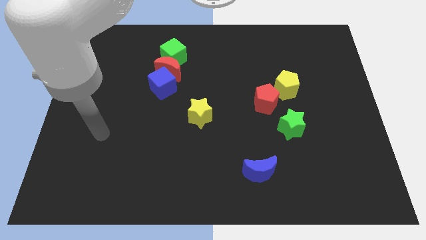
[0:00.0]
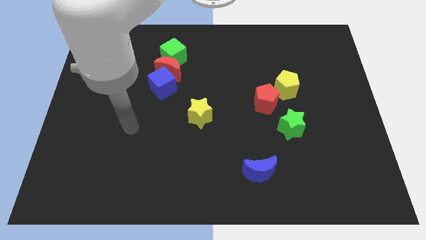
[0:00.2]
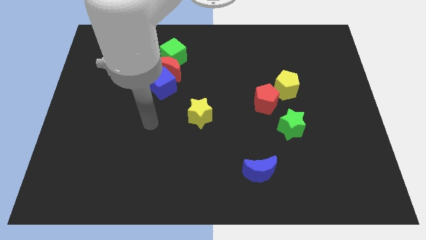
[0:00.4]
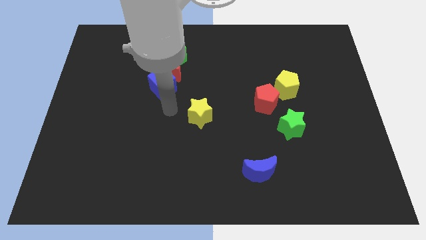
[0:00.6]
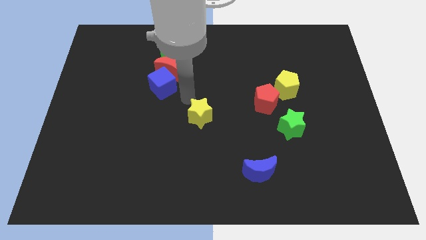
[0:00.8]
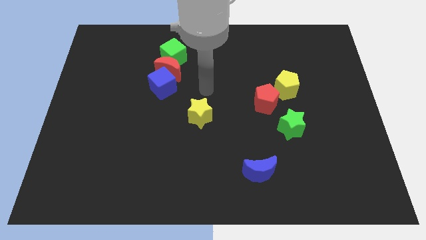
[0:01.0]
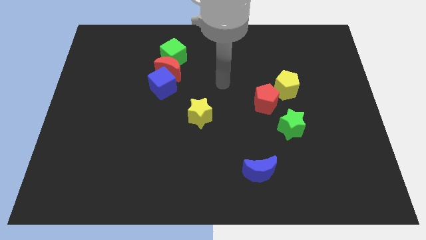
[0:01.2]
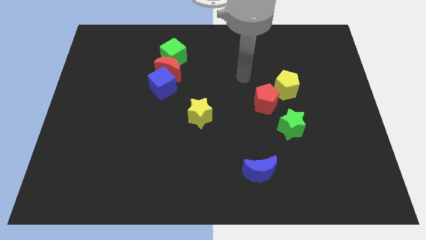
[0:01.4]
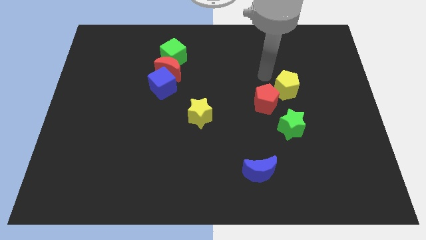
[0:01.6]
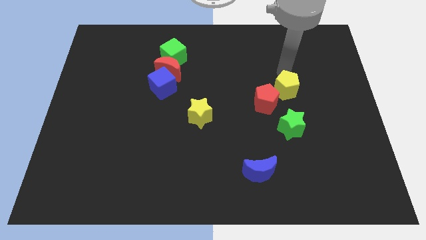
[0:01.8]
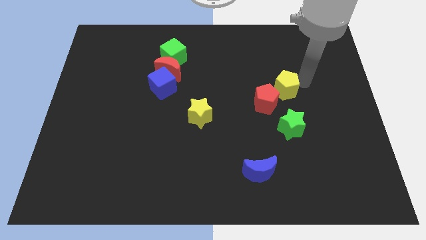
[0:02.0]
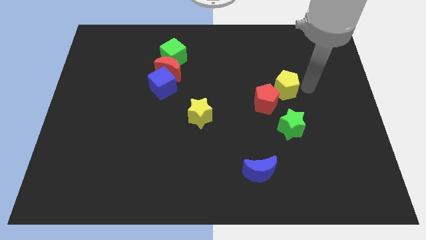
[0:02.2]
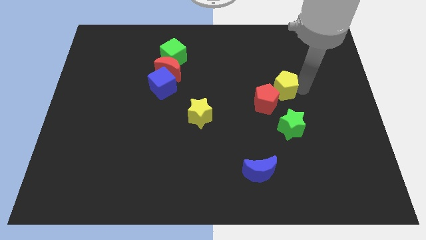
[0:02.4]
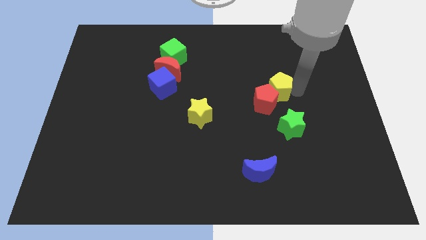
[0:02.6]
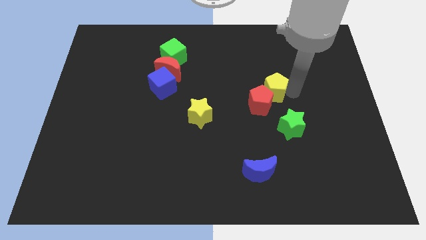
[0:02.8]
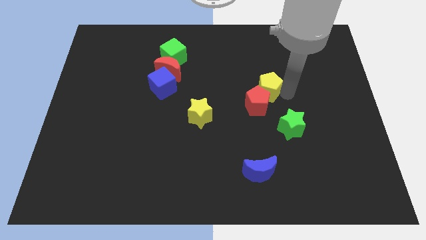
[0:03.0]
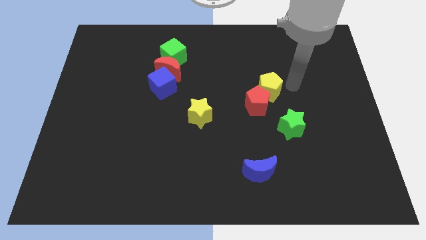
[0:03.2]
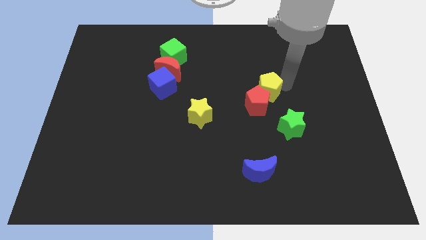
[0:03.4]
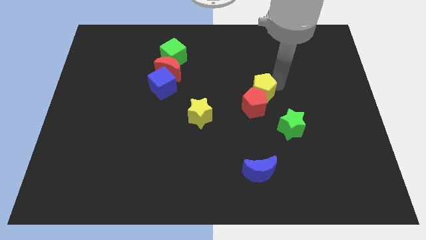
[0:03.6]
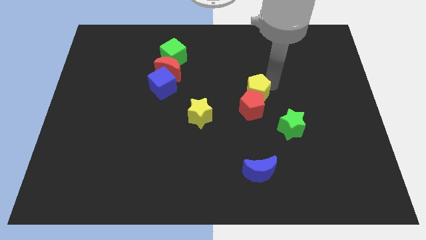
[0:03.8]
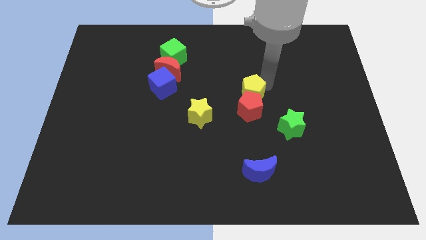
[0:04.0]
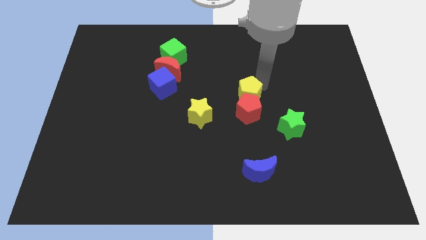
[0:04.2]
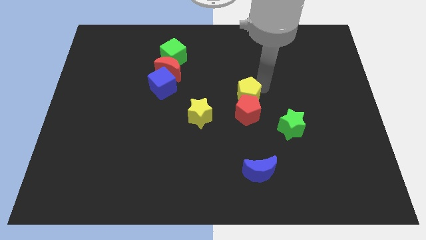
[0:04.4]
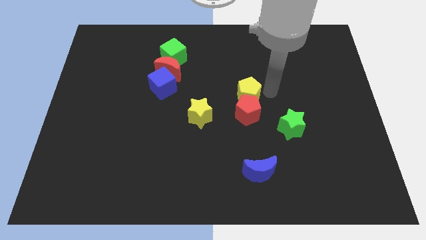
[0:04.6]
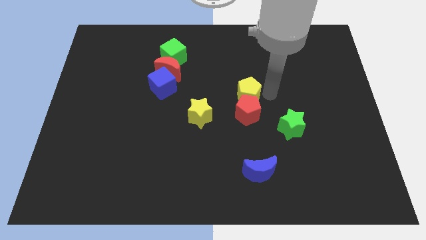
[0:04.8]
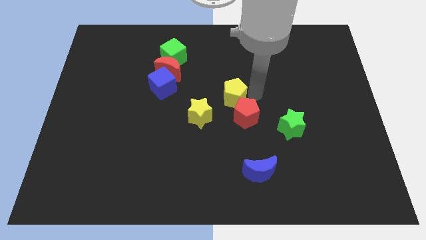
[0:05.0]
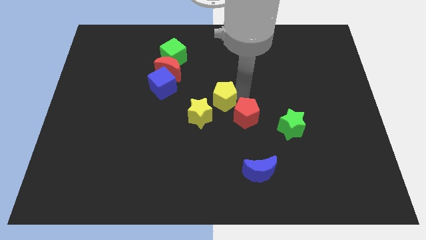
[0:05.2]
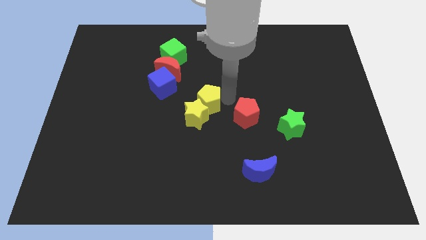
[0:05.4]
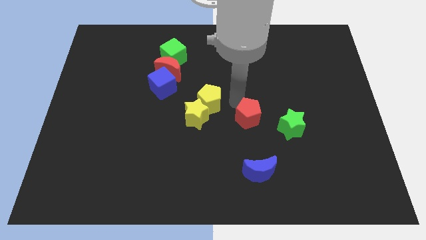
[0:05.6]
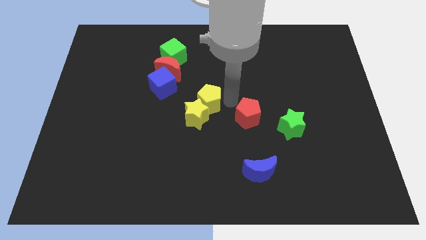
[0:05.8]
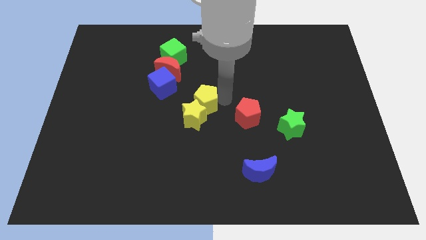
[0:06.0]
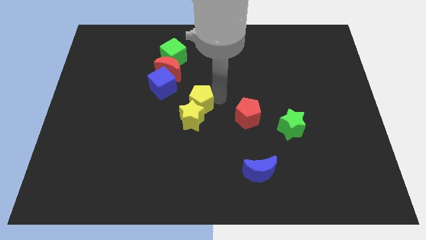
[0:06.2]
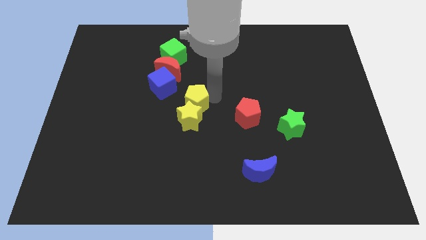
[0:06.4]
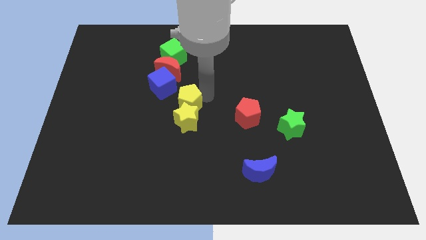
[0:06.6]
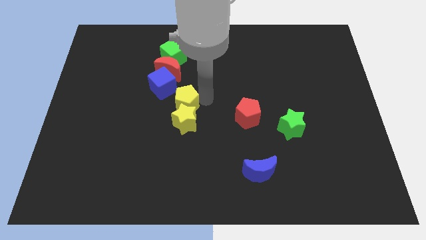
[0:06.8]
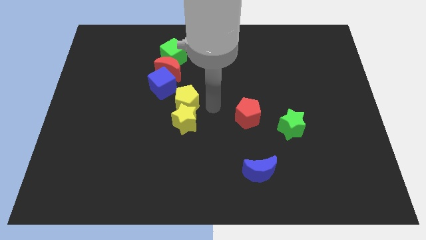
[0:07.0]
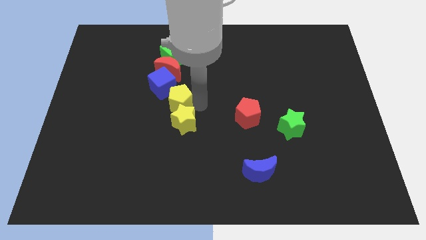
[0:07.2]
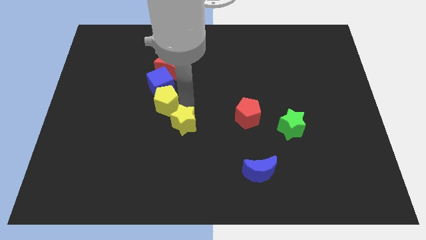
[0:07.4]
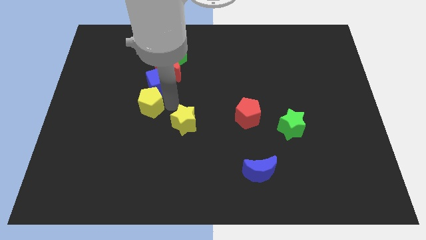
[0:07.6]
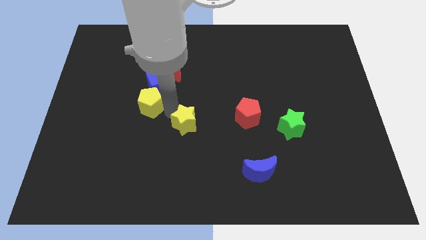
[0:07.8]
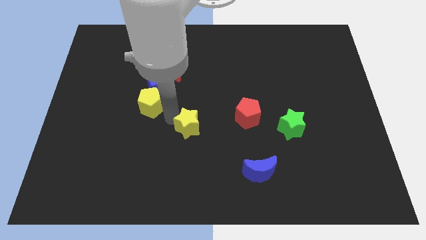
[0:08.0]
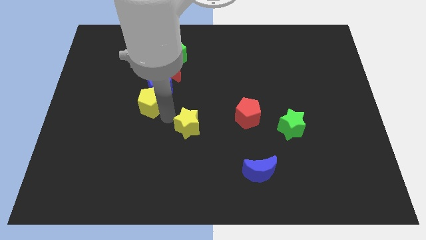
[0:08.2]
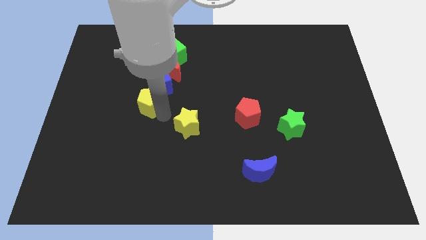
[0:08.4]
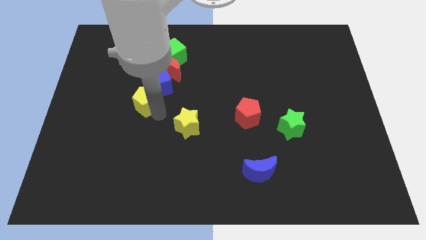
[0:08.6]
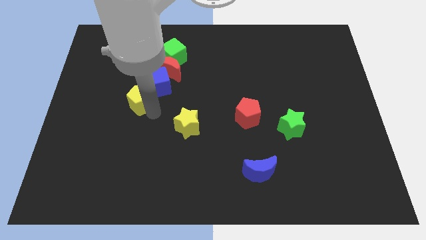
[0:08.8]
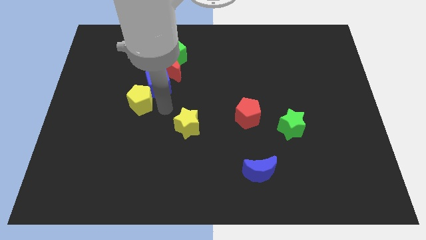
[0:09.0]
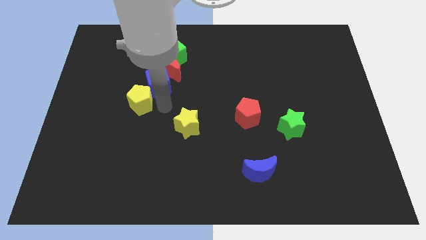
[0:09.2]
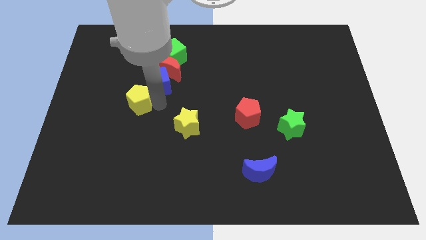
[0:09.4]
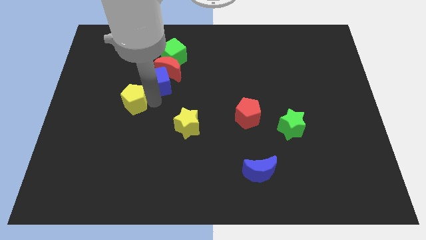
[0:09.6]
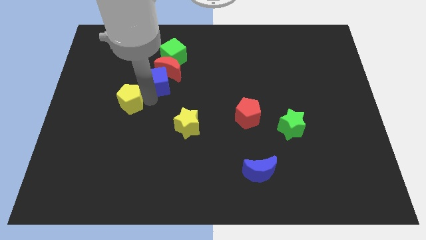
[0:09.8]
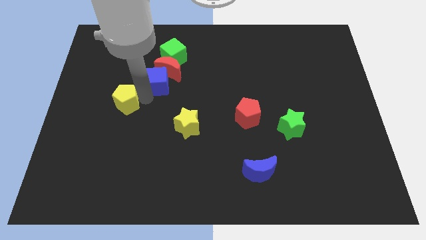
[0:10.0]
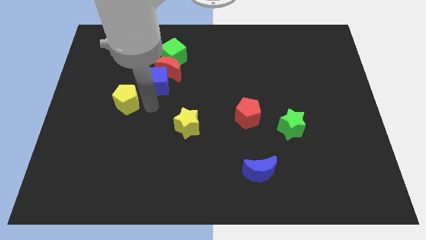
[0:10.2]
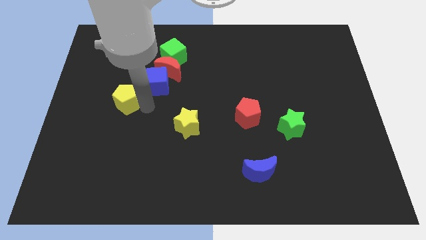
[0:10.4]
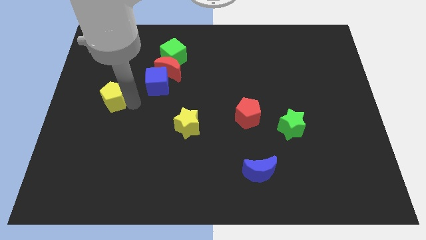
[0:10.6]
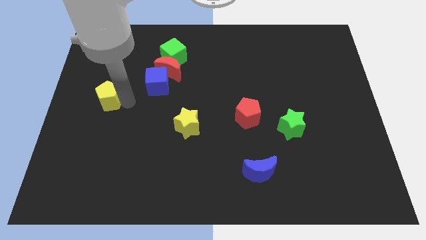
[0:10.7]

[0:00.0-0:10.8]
move the yellow pentagon to the left side

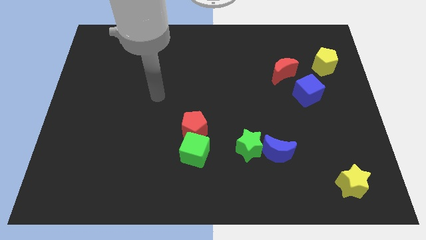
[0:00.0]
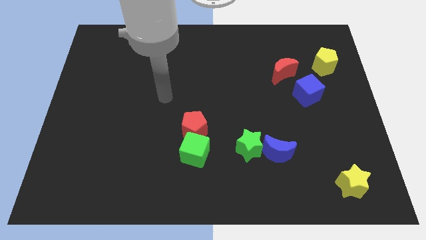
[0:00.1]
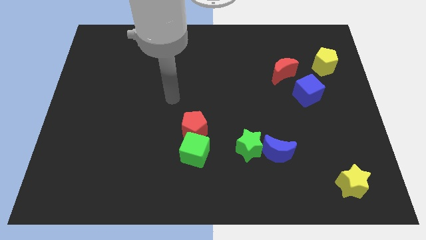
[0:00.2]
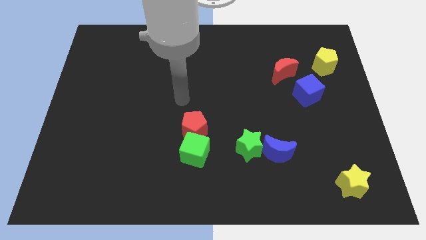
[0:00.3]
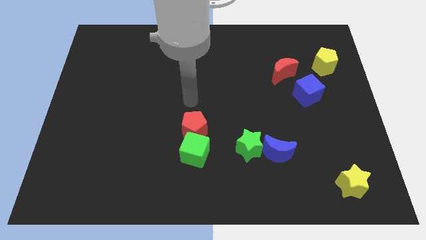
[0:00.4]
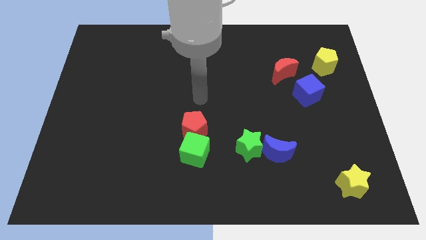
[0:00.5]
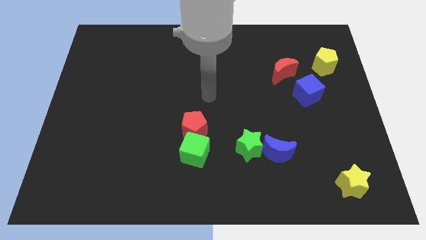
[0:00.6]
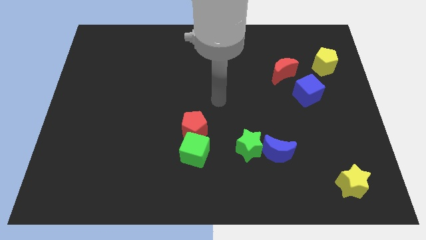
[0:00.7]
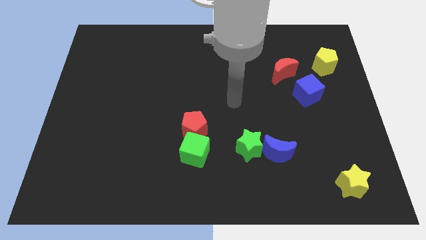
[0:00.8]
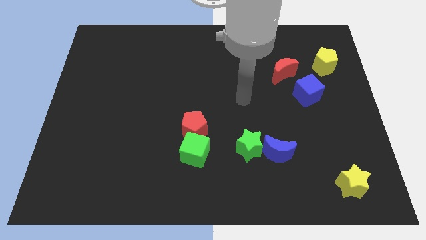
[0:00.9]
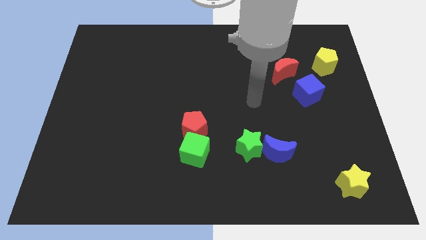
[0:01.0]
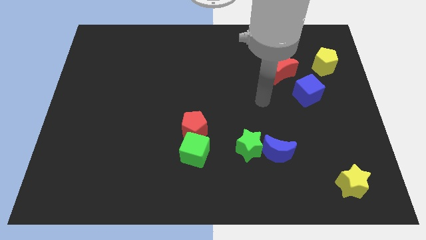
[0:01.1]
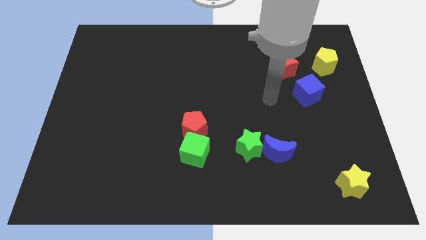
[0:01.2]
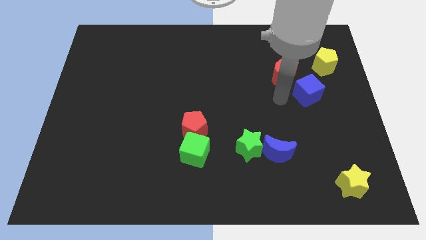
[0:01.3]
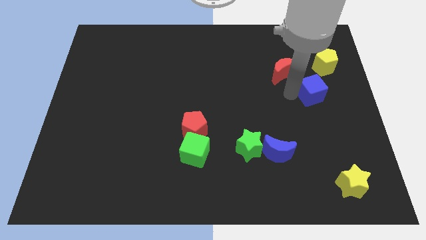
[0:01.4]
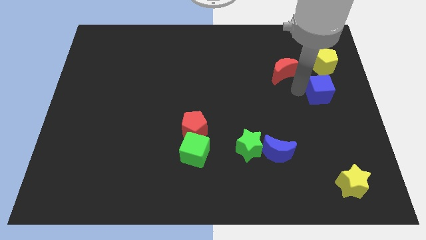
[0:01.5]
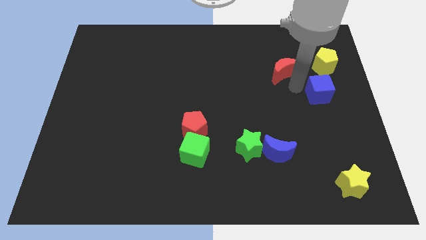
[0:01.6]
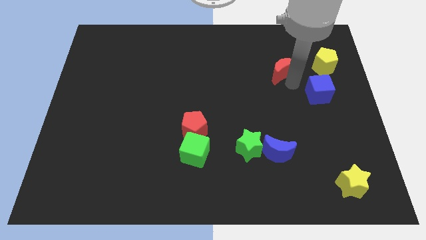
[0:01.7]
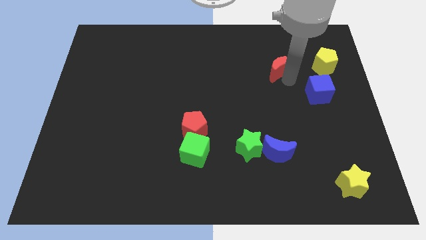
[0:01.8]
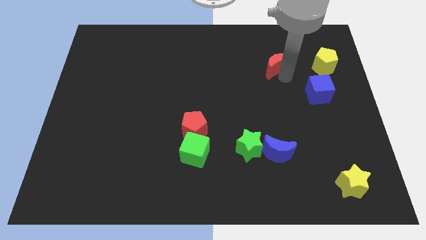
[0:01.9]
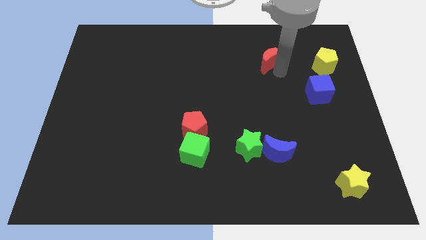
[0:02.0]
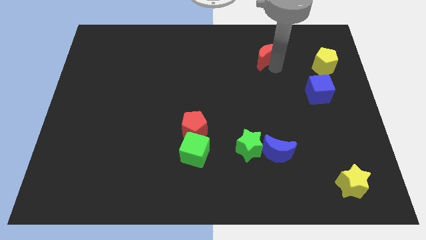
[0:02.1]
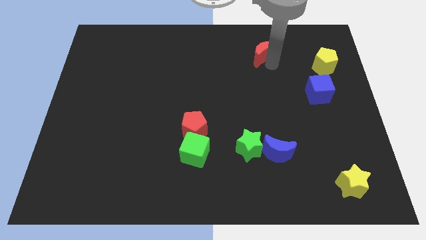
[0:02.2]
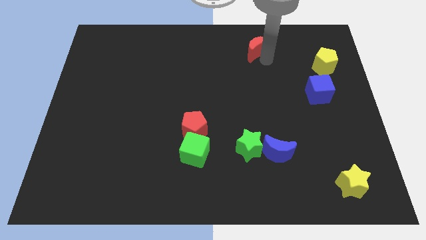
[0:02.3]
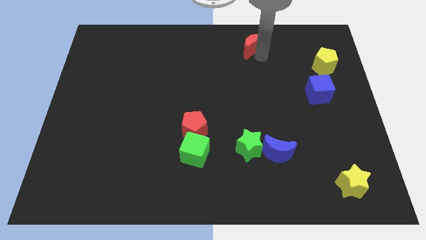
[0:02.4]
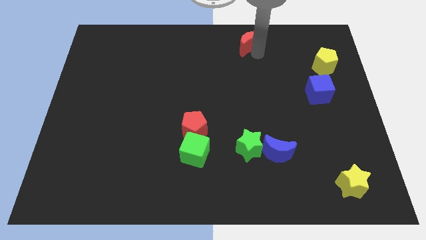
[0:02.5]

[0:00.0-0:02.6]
put the red moon to the towards your base
